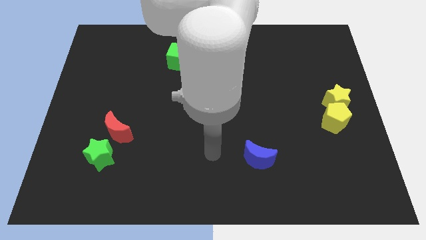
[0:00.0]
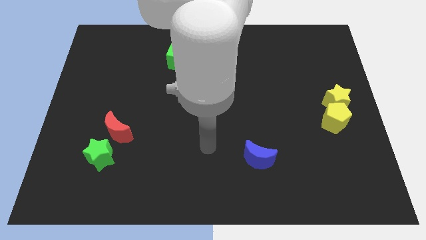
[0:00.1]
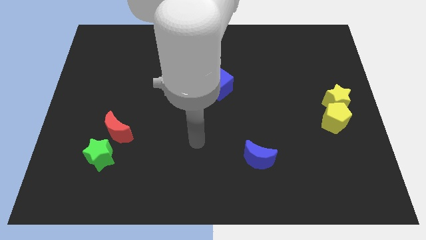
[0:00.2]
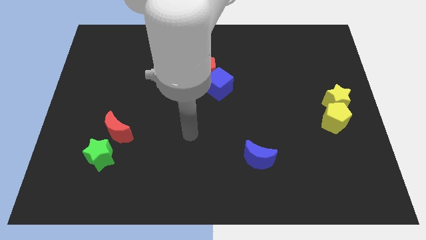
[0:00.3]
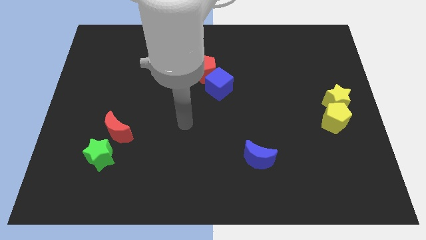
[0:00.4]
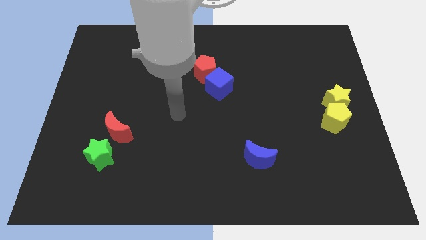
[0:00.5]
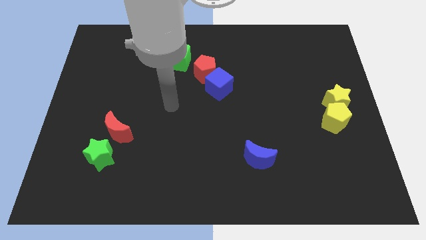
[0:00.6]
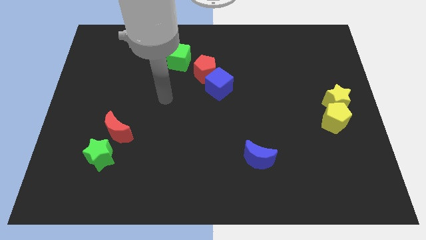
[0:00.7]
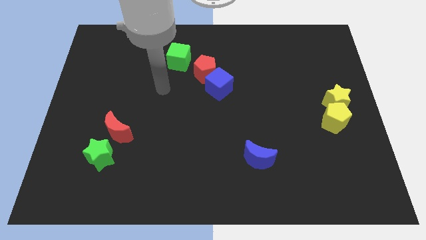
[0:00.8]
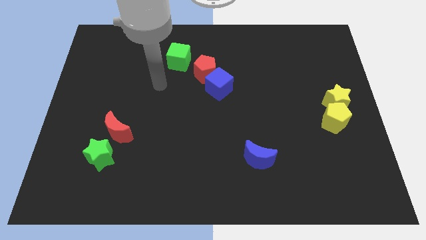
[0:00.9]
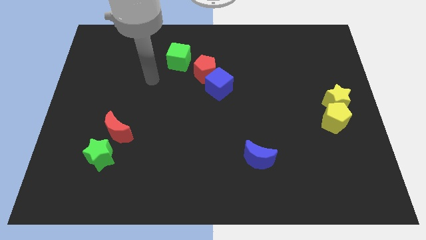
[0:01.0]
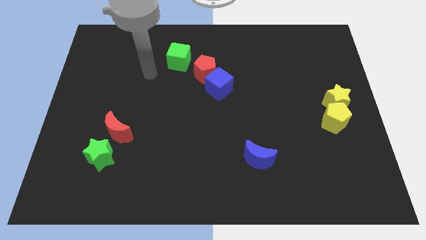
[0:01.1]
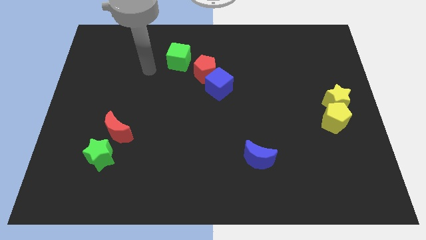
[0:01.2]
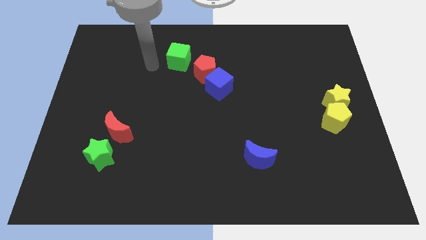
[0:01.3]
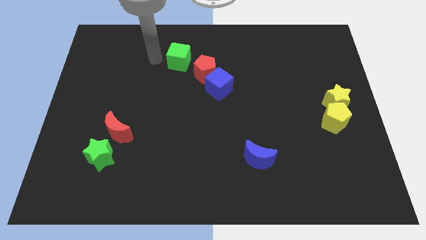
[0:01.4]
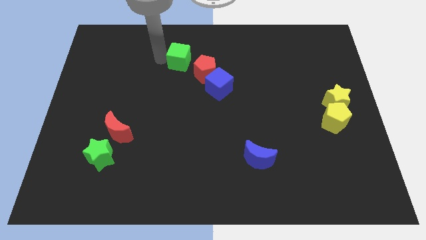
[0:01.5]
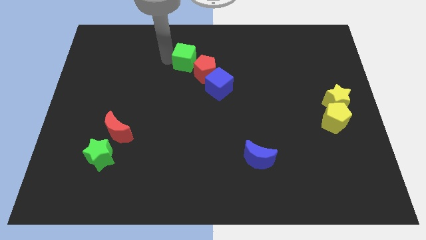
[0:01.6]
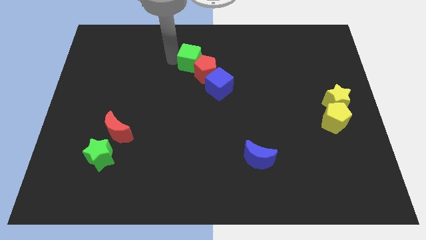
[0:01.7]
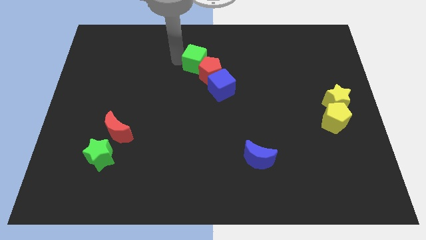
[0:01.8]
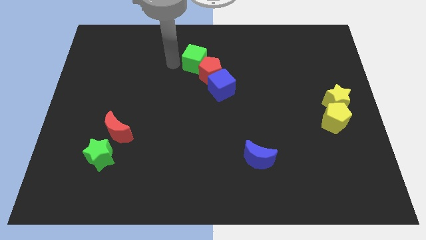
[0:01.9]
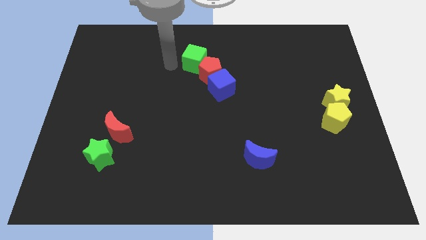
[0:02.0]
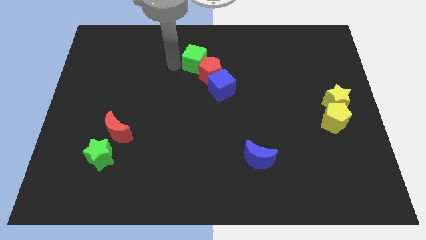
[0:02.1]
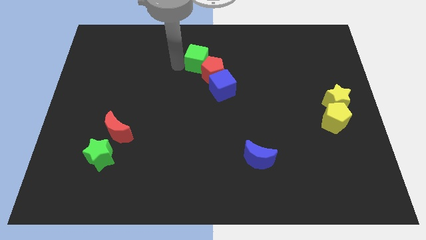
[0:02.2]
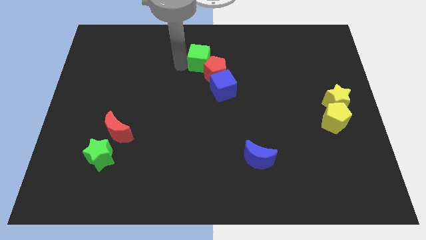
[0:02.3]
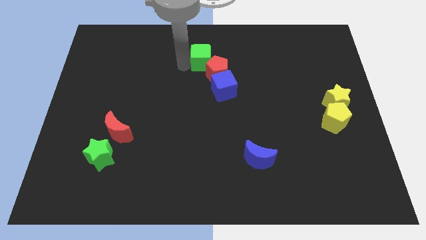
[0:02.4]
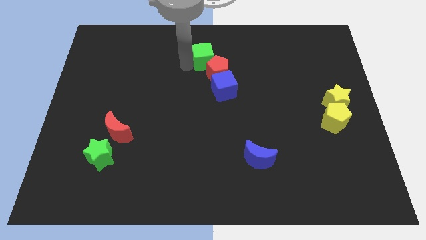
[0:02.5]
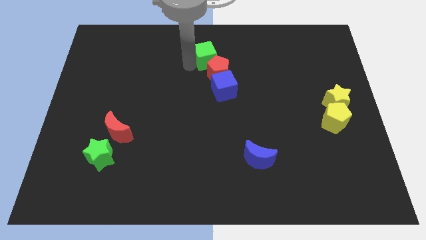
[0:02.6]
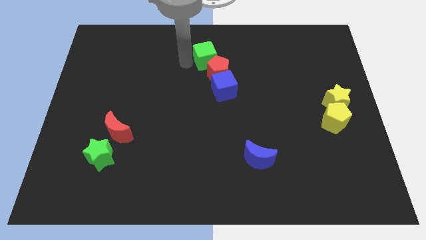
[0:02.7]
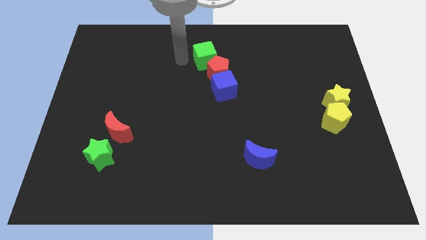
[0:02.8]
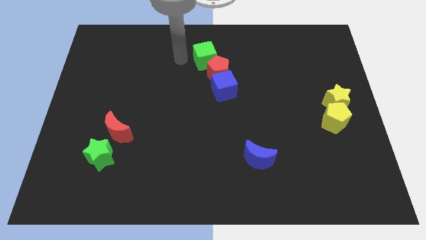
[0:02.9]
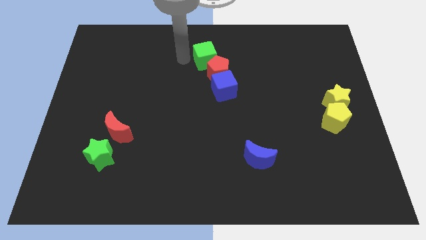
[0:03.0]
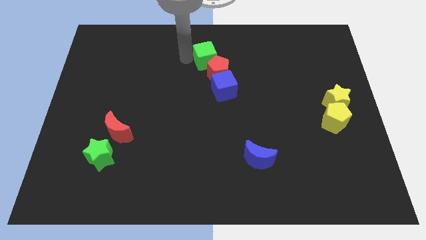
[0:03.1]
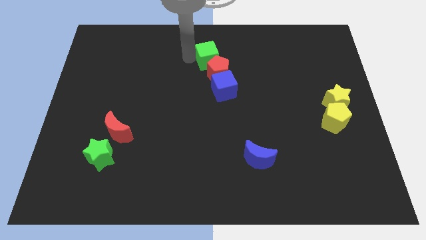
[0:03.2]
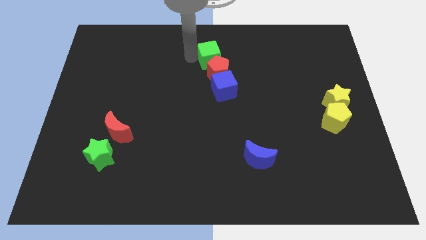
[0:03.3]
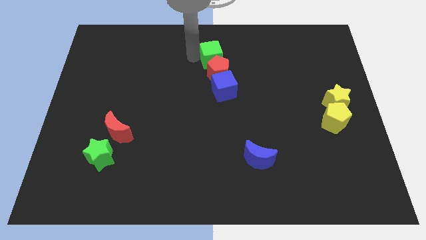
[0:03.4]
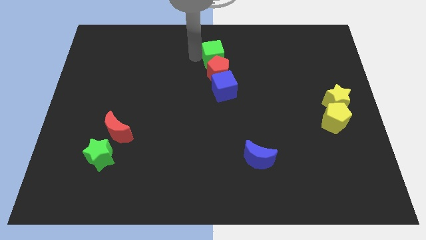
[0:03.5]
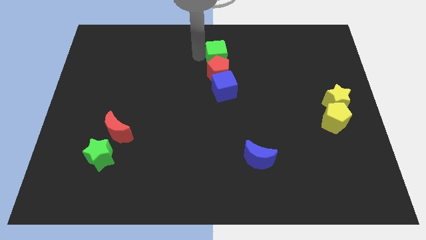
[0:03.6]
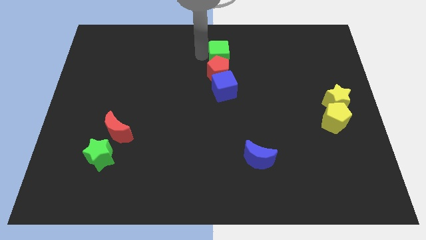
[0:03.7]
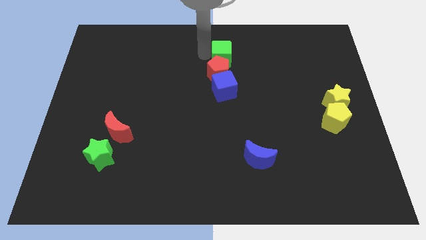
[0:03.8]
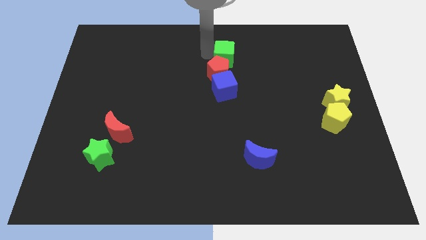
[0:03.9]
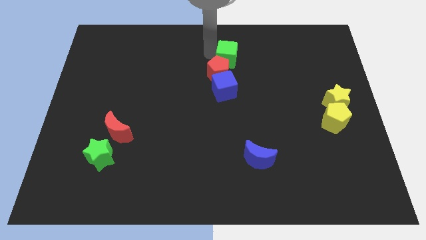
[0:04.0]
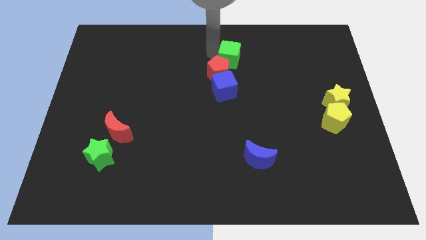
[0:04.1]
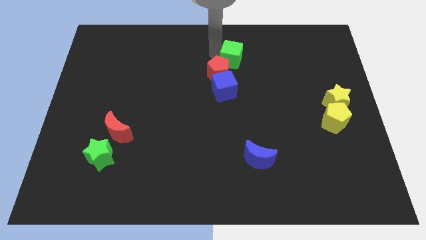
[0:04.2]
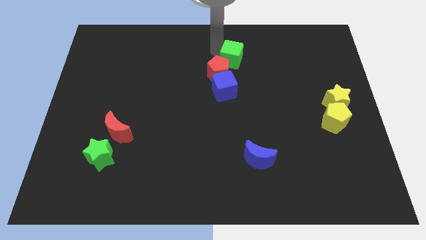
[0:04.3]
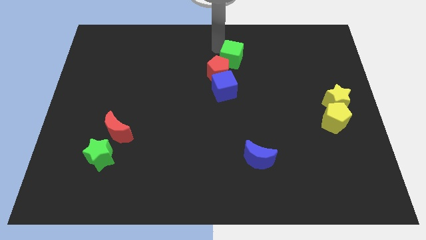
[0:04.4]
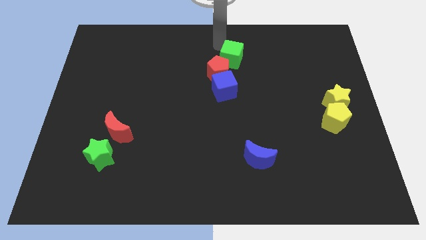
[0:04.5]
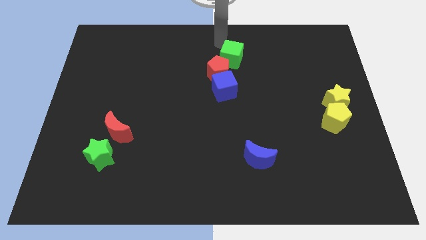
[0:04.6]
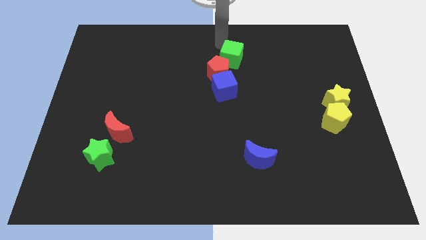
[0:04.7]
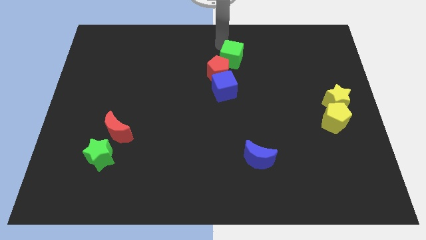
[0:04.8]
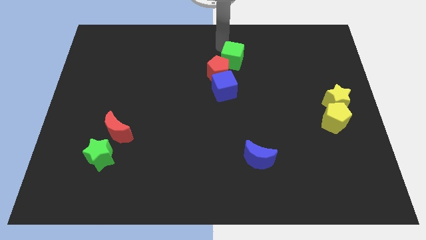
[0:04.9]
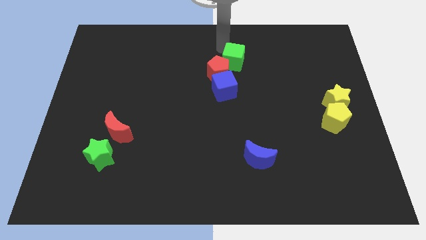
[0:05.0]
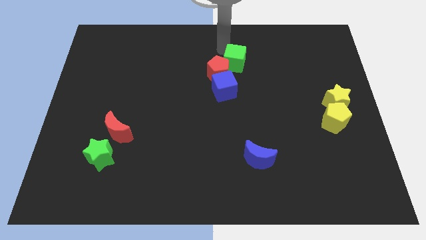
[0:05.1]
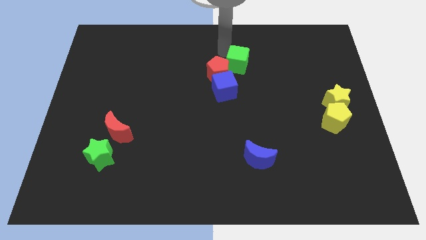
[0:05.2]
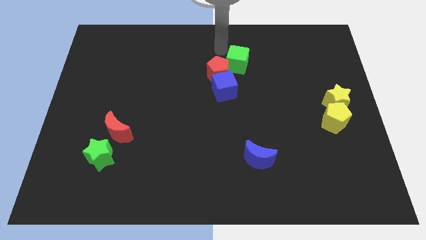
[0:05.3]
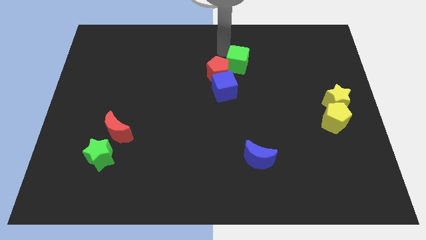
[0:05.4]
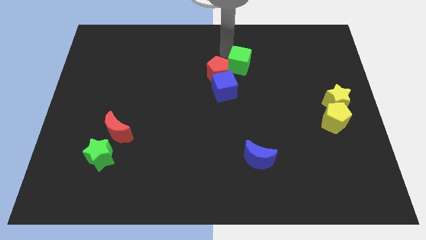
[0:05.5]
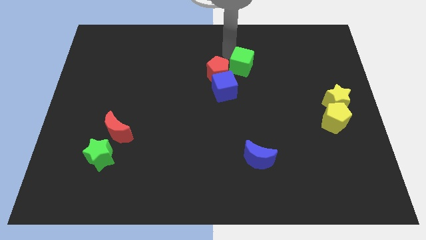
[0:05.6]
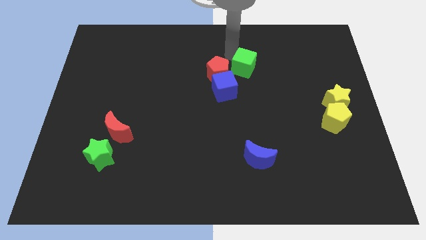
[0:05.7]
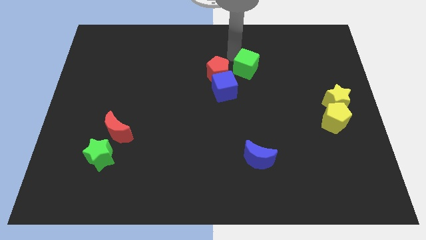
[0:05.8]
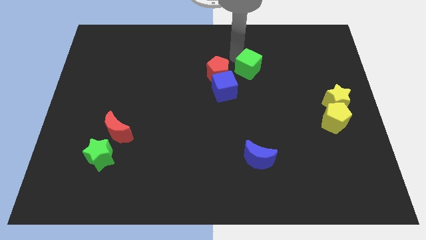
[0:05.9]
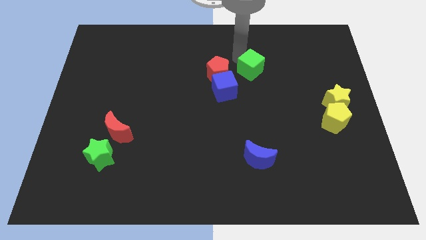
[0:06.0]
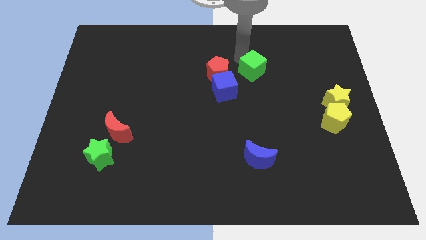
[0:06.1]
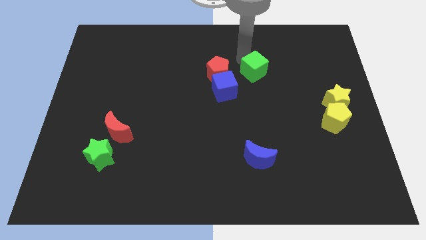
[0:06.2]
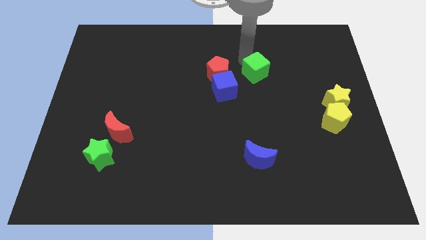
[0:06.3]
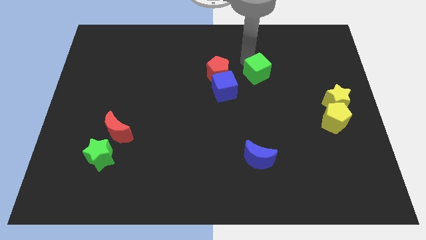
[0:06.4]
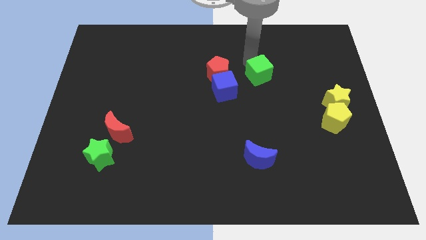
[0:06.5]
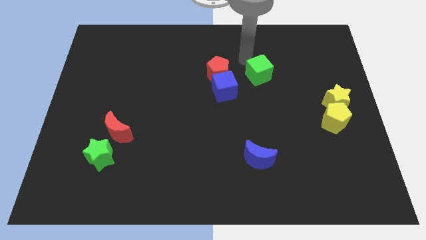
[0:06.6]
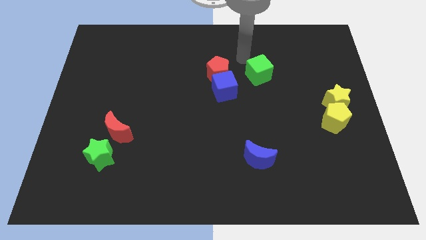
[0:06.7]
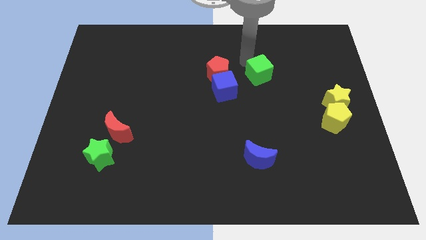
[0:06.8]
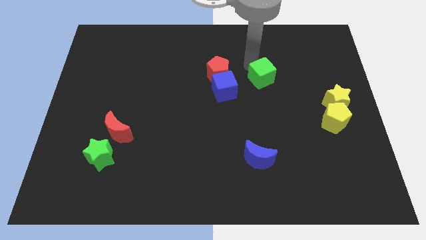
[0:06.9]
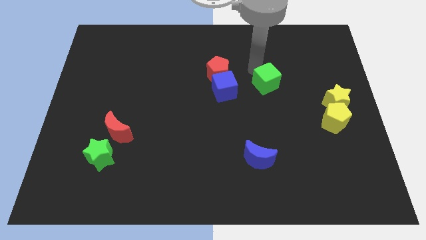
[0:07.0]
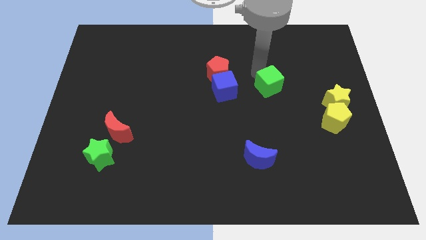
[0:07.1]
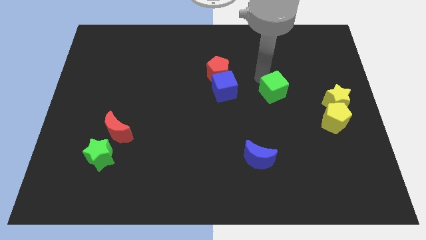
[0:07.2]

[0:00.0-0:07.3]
move the green cube to the left of the yellow star
